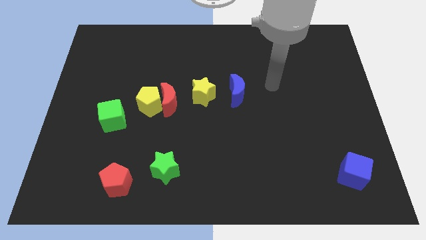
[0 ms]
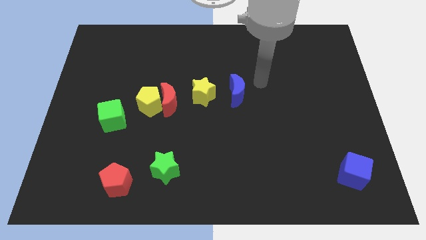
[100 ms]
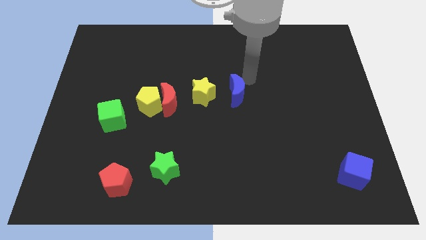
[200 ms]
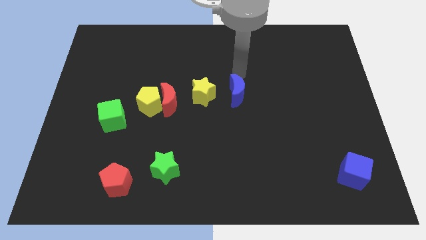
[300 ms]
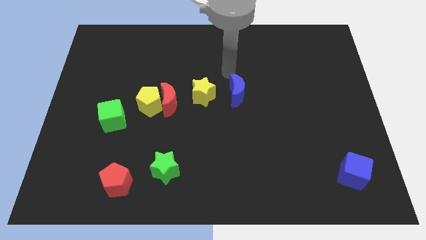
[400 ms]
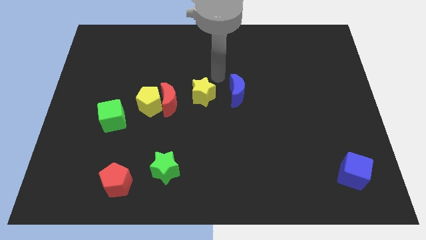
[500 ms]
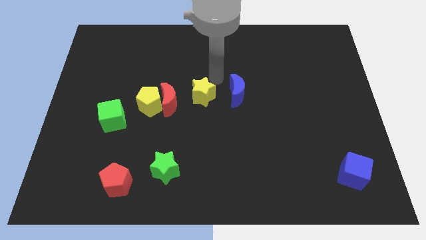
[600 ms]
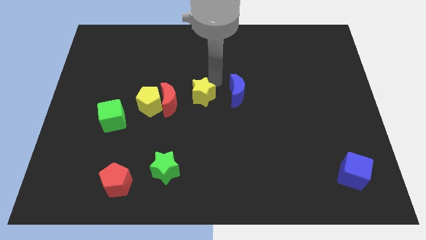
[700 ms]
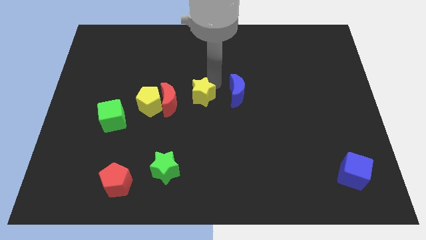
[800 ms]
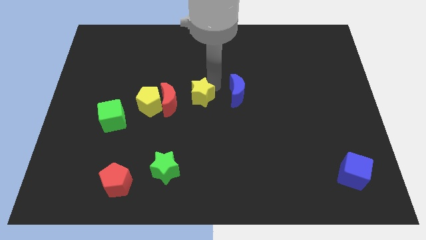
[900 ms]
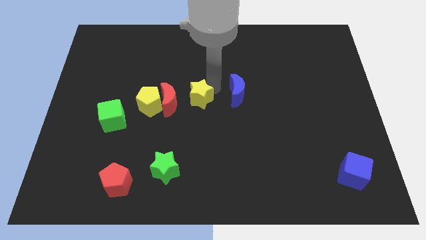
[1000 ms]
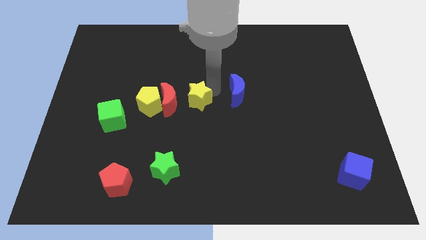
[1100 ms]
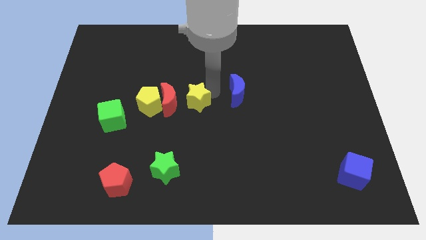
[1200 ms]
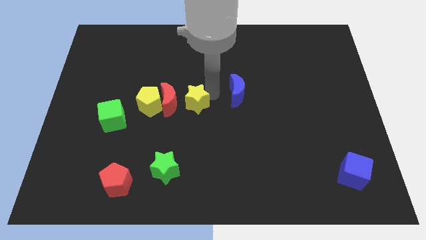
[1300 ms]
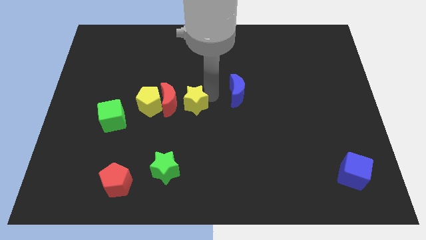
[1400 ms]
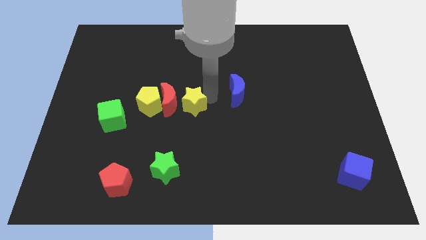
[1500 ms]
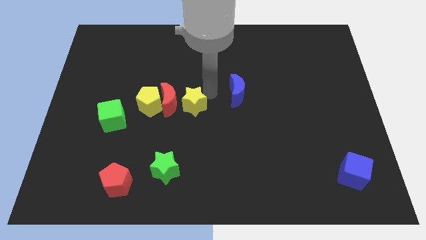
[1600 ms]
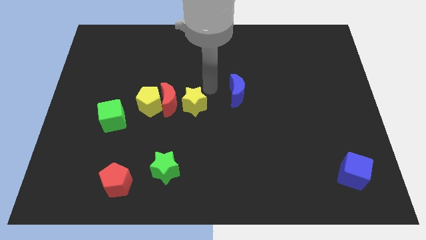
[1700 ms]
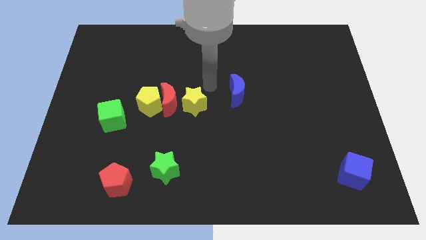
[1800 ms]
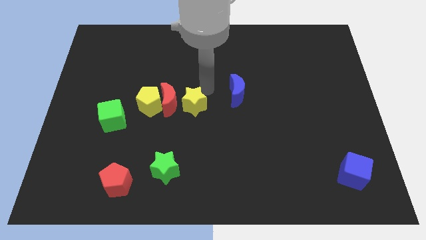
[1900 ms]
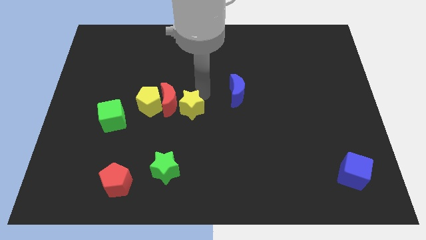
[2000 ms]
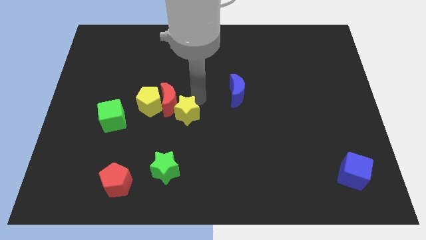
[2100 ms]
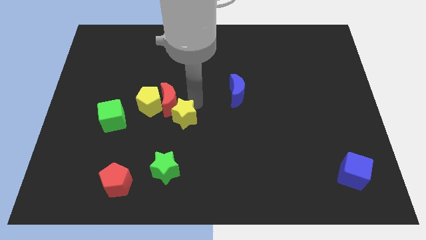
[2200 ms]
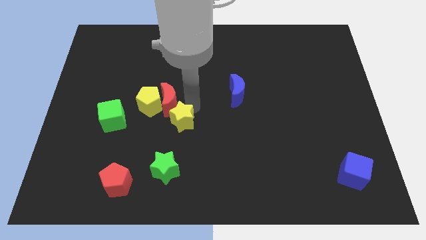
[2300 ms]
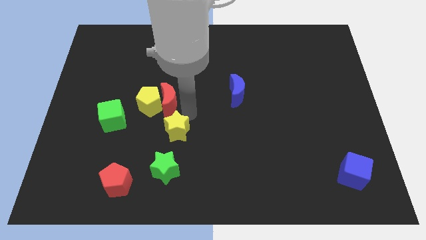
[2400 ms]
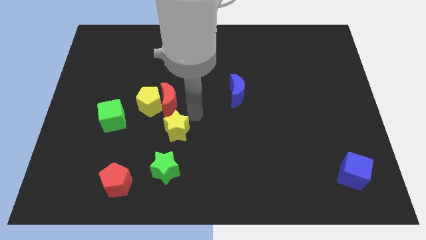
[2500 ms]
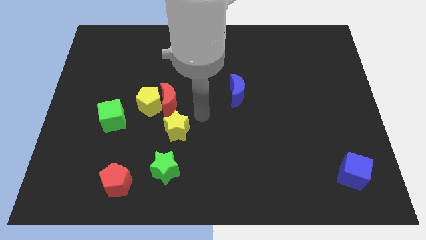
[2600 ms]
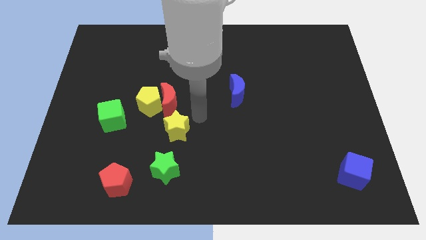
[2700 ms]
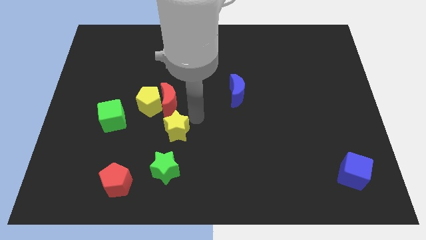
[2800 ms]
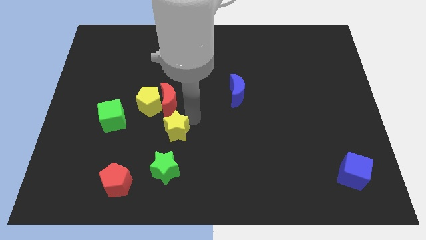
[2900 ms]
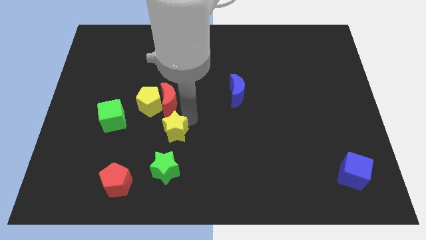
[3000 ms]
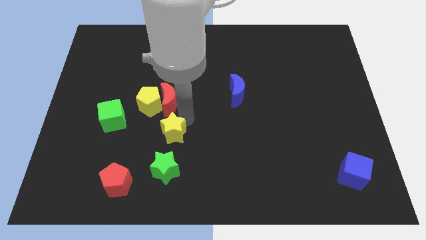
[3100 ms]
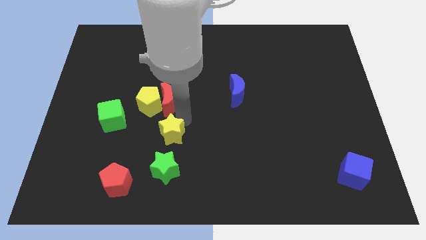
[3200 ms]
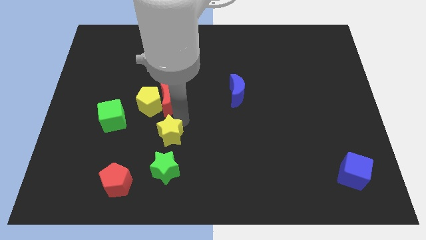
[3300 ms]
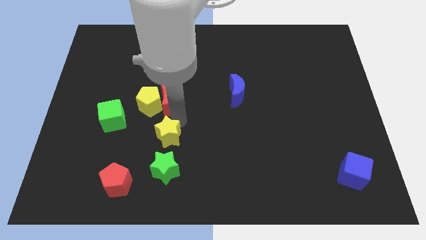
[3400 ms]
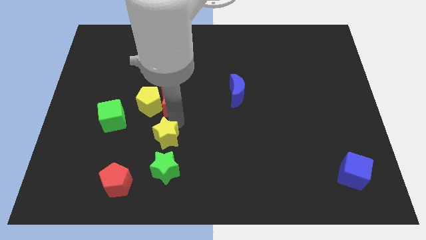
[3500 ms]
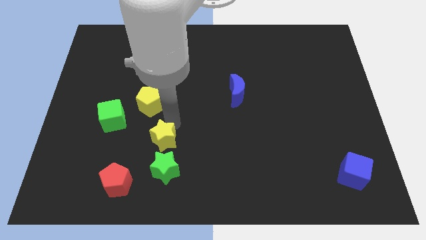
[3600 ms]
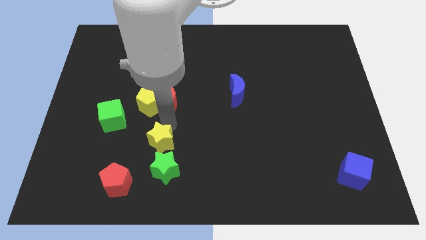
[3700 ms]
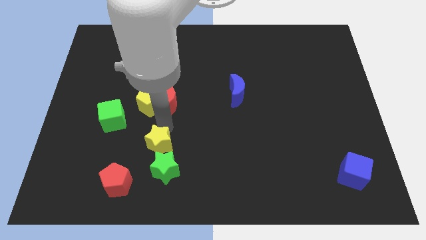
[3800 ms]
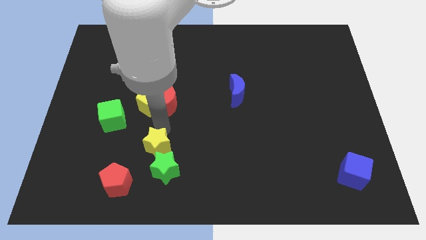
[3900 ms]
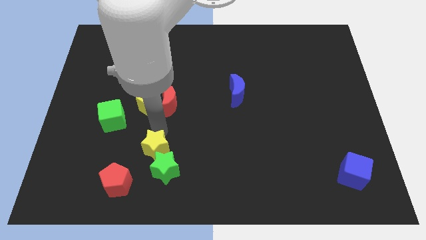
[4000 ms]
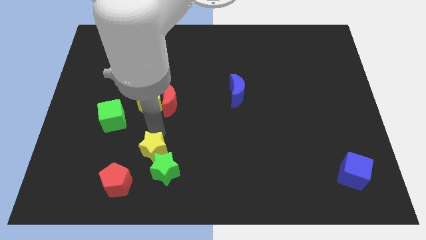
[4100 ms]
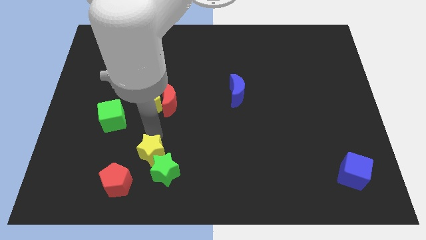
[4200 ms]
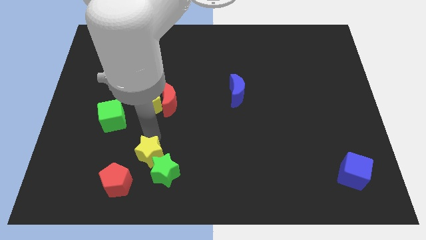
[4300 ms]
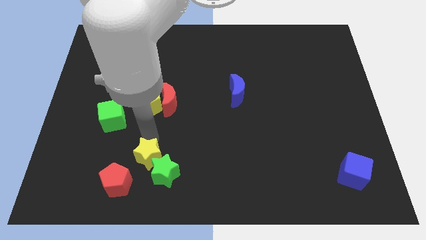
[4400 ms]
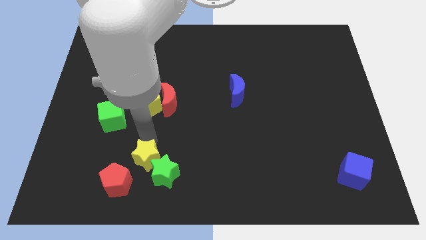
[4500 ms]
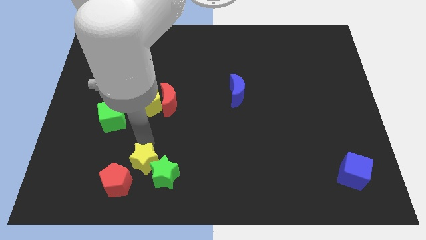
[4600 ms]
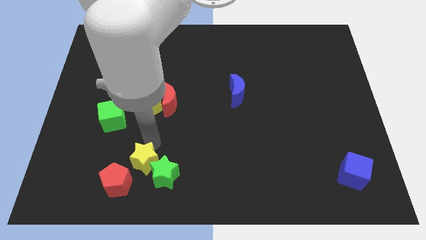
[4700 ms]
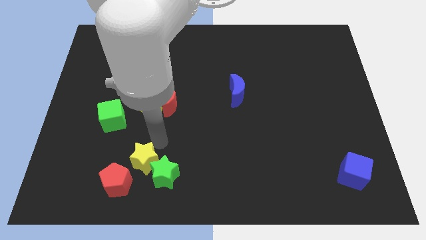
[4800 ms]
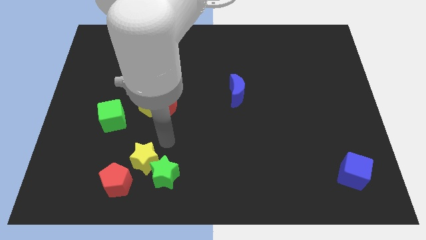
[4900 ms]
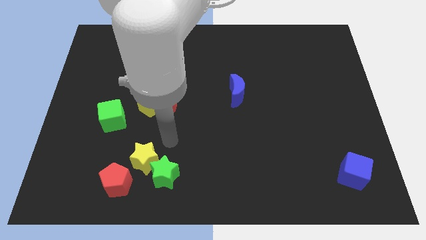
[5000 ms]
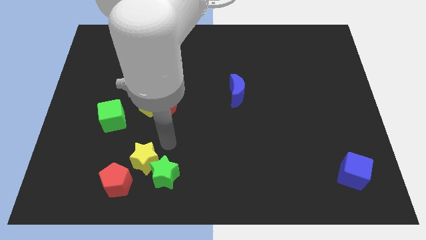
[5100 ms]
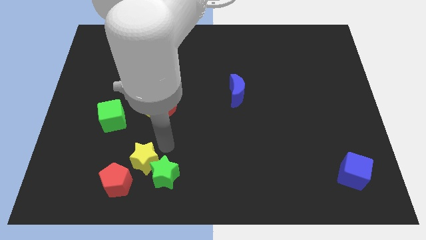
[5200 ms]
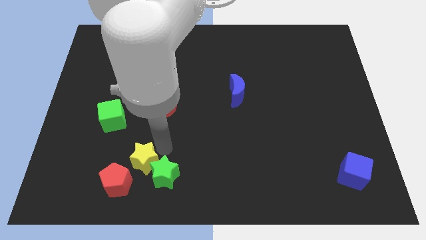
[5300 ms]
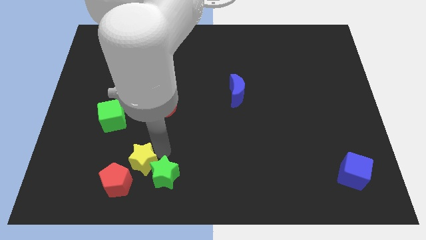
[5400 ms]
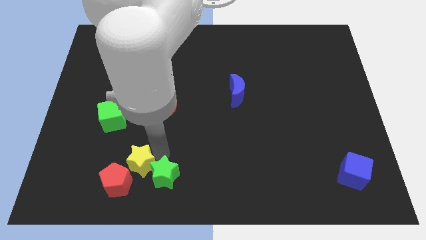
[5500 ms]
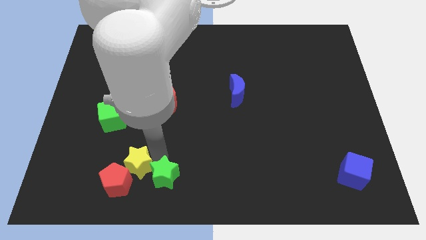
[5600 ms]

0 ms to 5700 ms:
push the yellow star next to the red pentagon

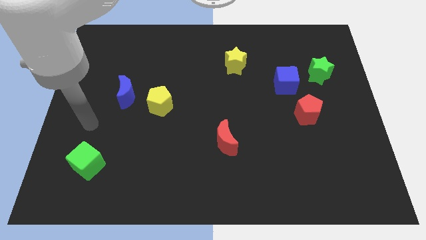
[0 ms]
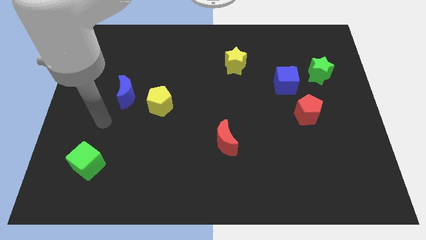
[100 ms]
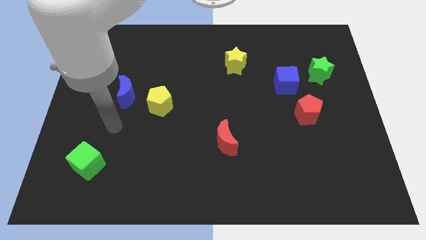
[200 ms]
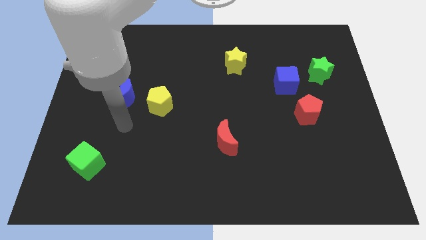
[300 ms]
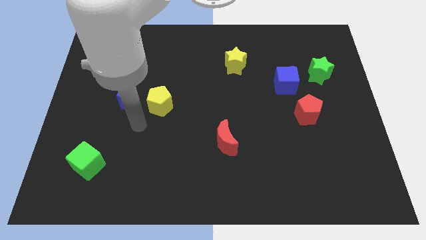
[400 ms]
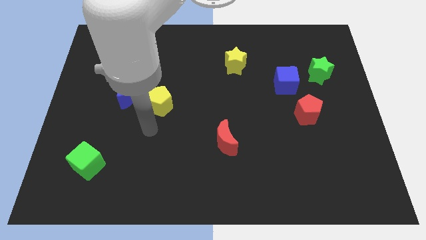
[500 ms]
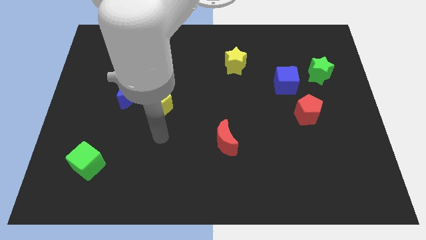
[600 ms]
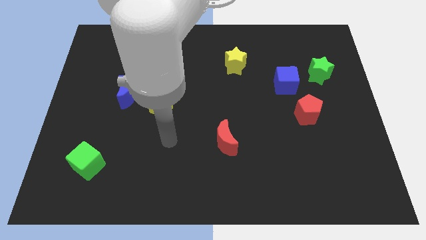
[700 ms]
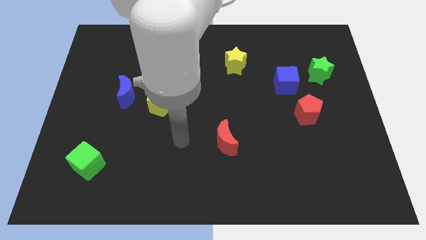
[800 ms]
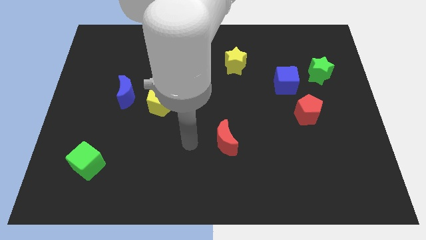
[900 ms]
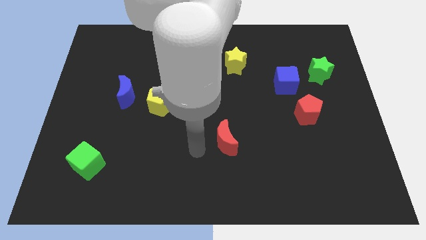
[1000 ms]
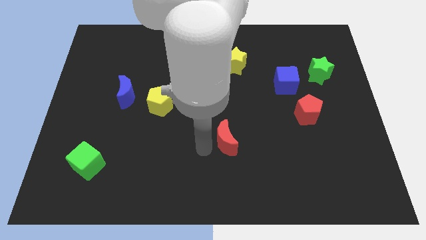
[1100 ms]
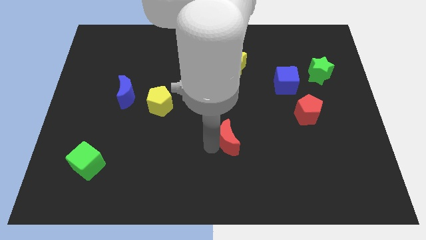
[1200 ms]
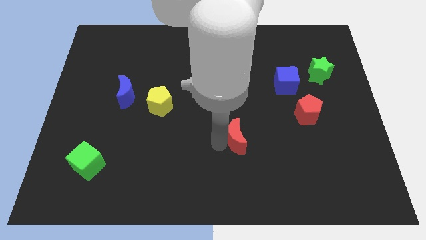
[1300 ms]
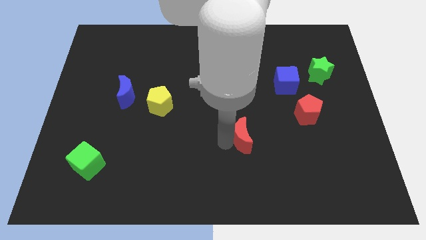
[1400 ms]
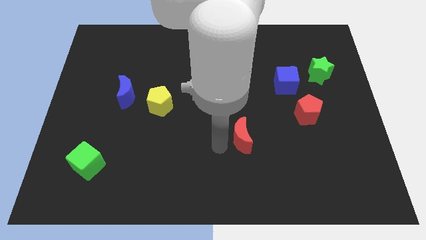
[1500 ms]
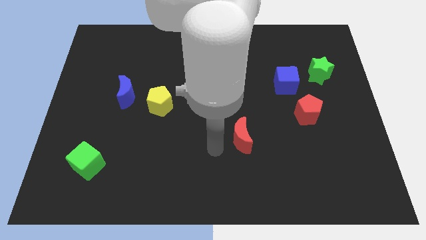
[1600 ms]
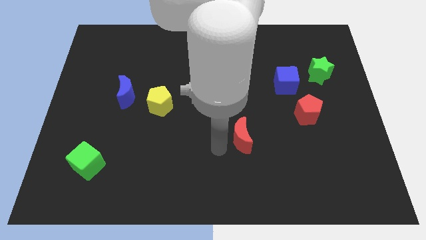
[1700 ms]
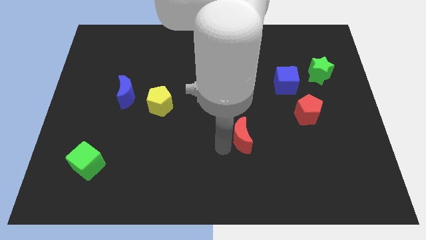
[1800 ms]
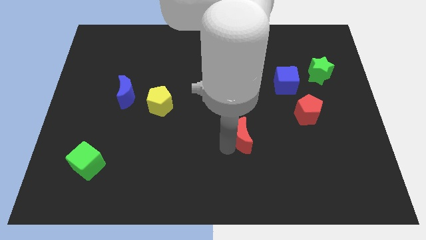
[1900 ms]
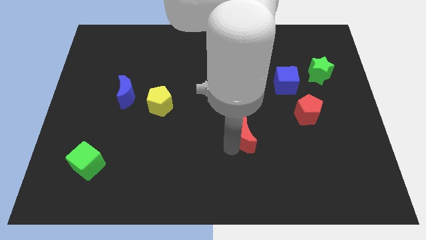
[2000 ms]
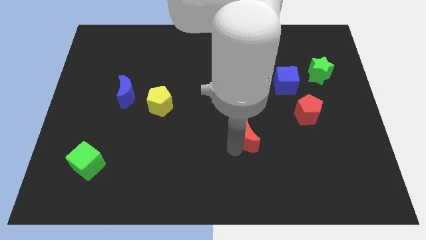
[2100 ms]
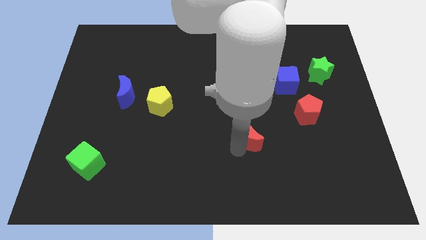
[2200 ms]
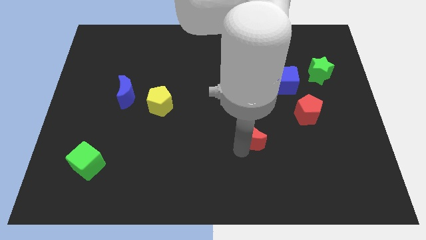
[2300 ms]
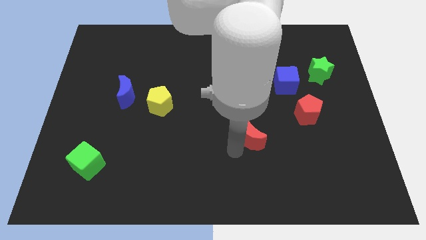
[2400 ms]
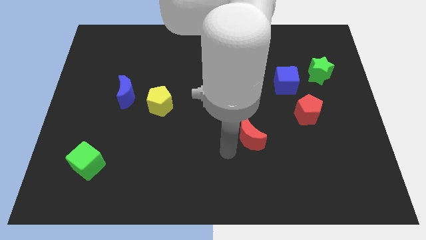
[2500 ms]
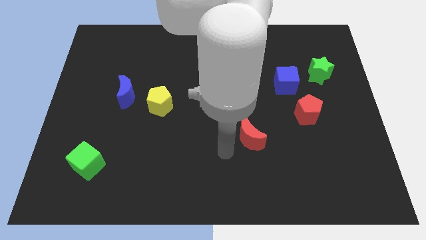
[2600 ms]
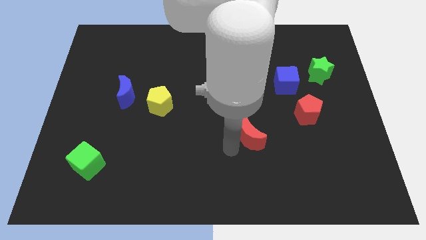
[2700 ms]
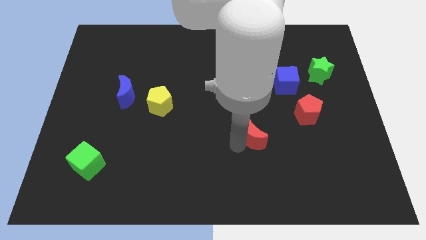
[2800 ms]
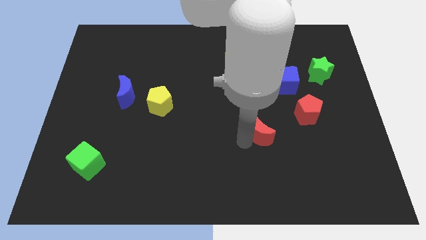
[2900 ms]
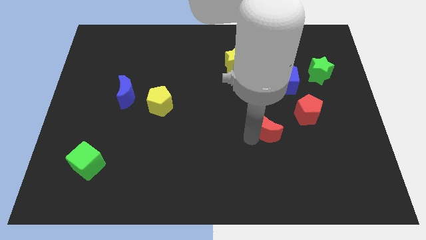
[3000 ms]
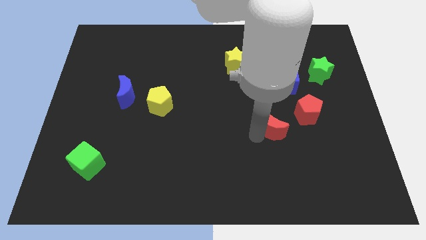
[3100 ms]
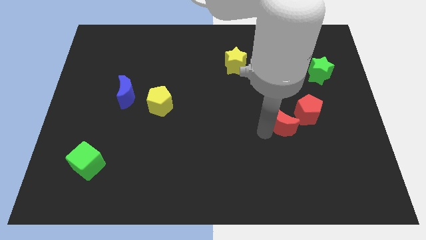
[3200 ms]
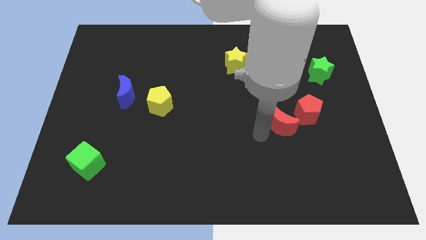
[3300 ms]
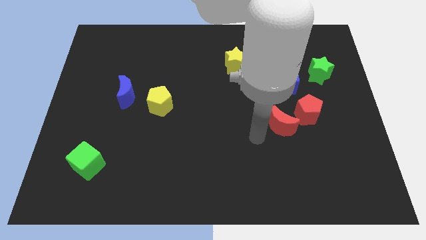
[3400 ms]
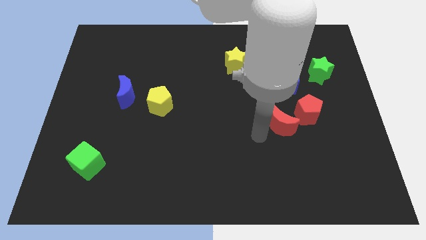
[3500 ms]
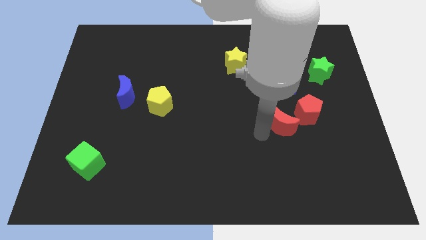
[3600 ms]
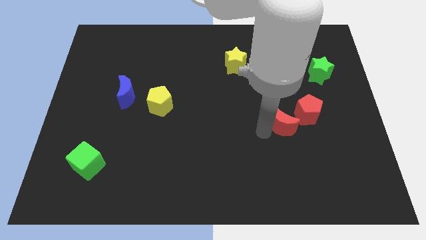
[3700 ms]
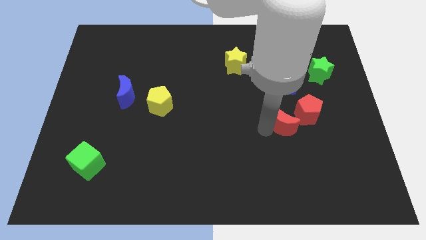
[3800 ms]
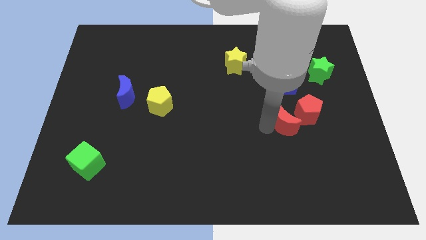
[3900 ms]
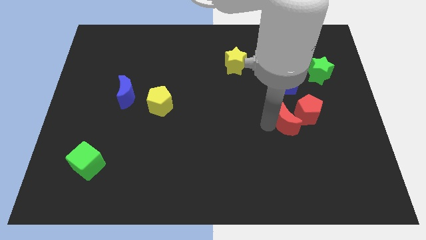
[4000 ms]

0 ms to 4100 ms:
push the red moon close to the red pentagon
